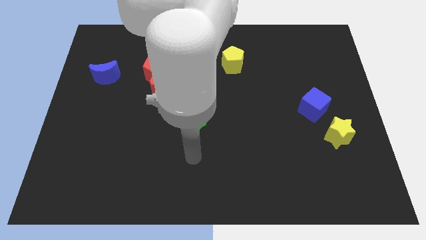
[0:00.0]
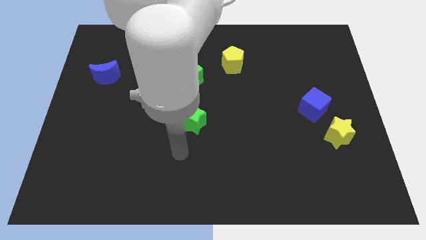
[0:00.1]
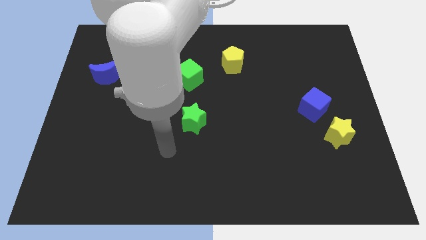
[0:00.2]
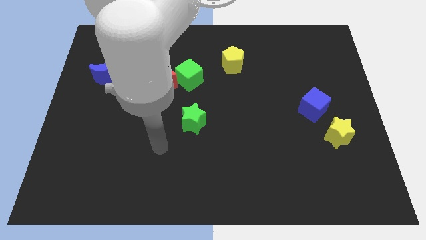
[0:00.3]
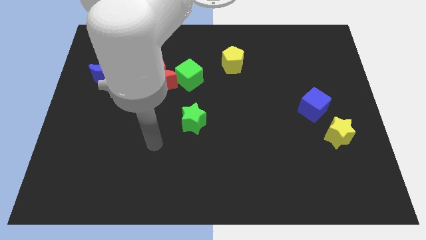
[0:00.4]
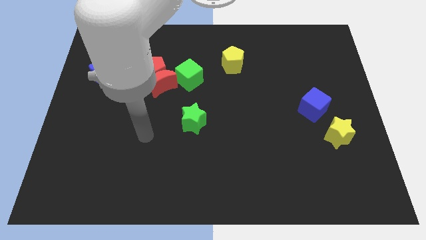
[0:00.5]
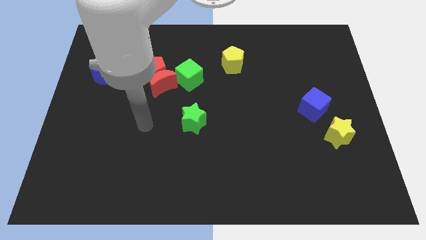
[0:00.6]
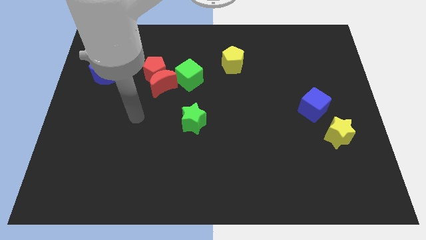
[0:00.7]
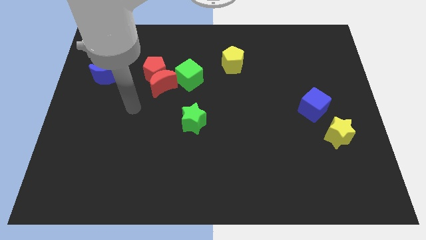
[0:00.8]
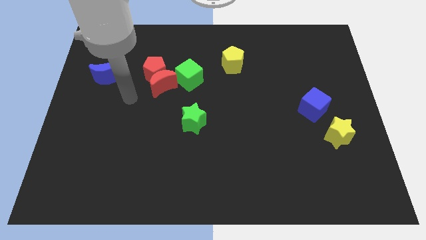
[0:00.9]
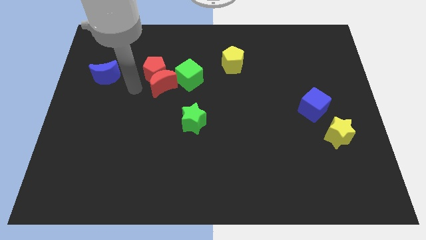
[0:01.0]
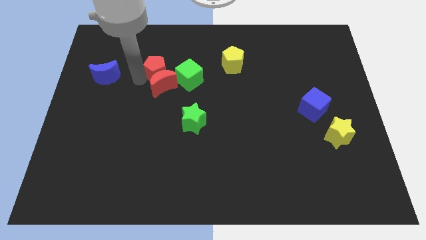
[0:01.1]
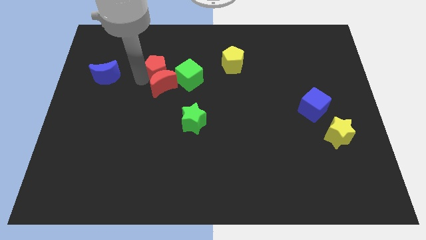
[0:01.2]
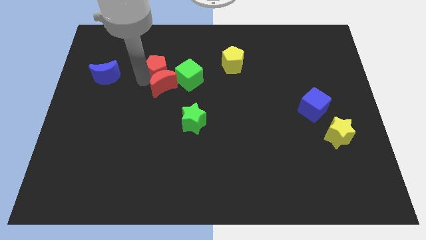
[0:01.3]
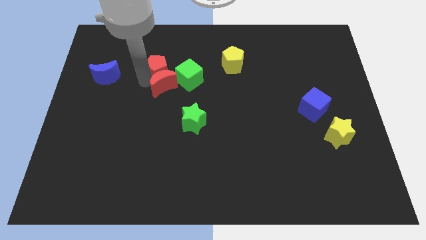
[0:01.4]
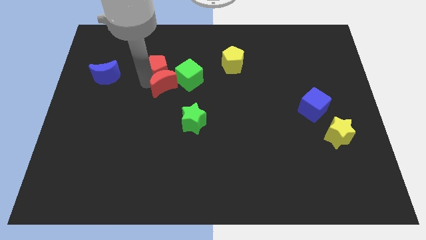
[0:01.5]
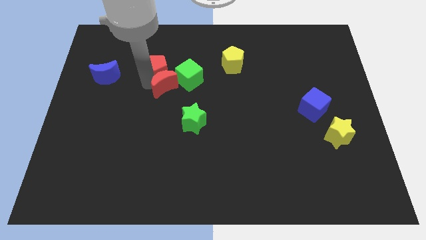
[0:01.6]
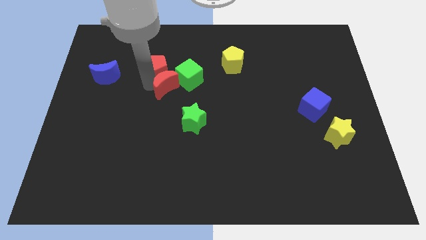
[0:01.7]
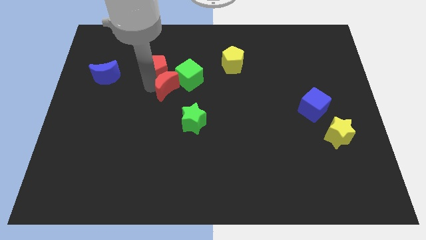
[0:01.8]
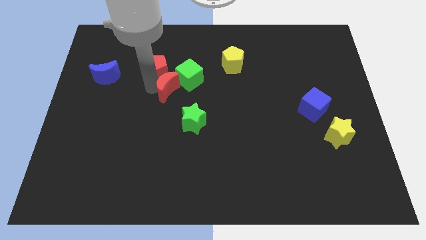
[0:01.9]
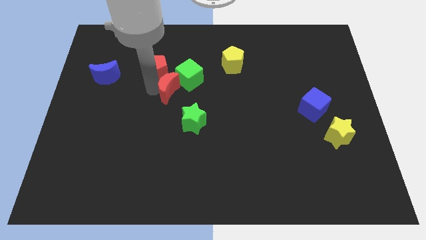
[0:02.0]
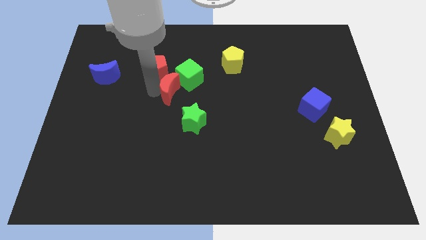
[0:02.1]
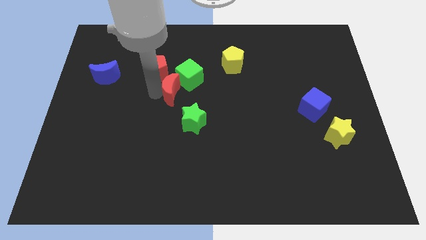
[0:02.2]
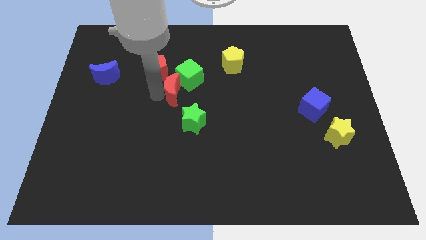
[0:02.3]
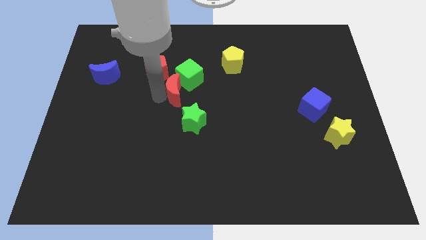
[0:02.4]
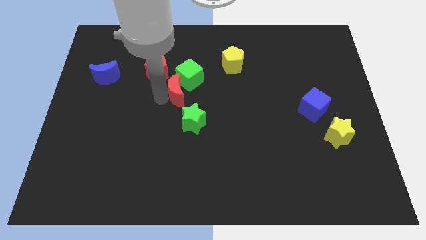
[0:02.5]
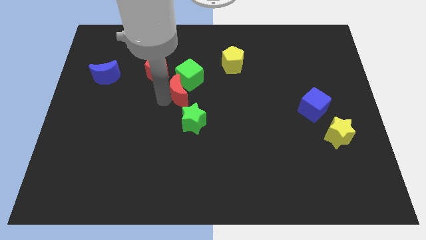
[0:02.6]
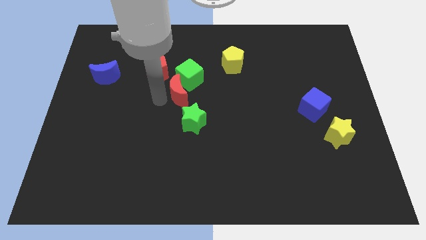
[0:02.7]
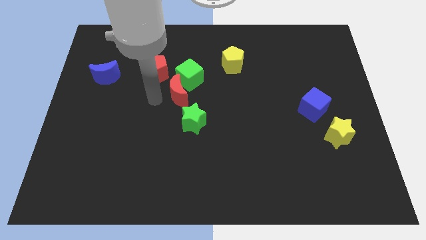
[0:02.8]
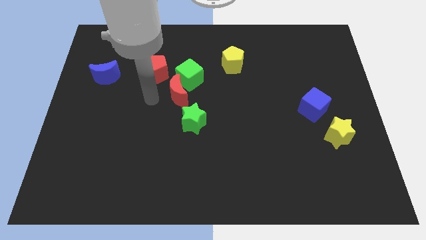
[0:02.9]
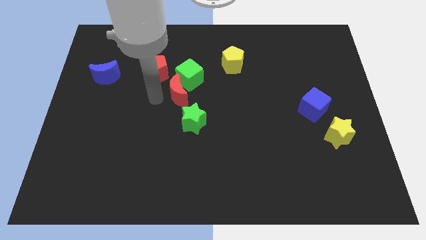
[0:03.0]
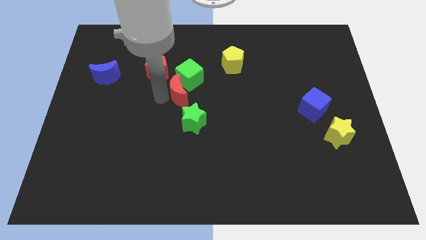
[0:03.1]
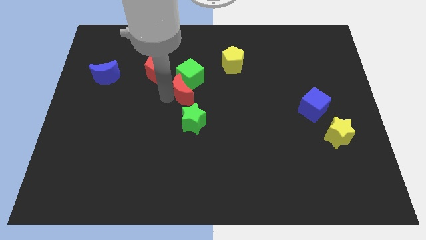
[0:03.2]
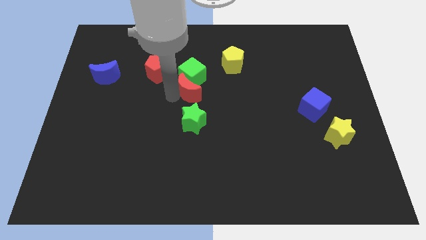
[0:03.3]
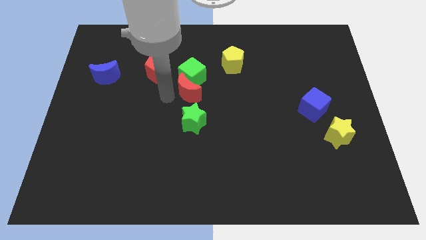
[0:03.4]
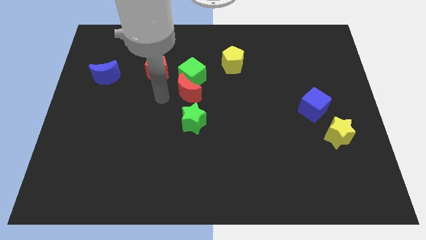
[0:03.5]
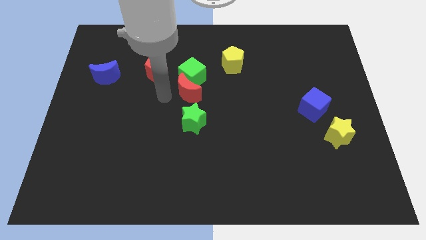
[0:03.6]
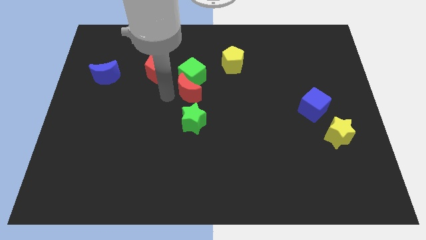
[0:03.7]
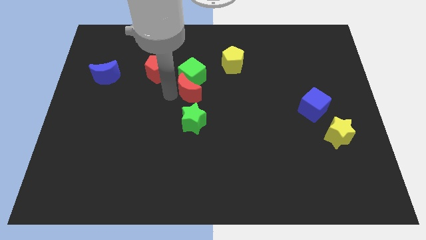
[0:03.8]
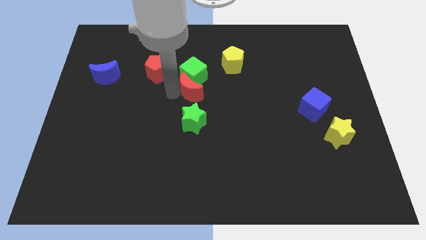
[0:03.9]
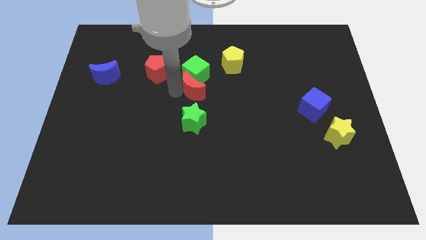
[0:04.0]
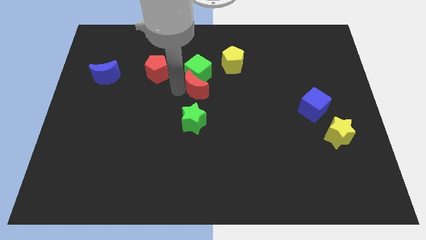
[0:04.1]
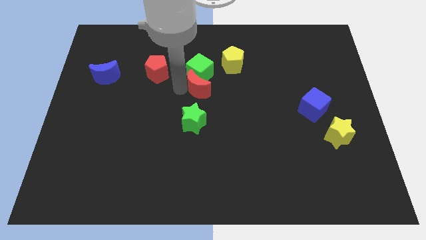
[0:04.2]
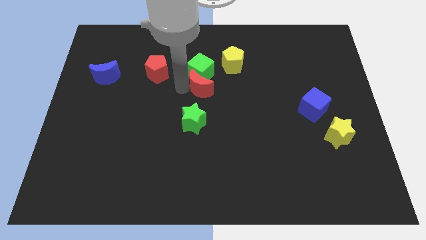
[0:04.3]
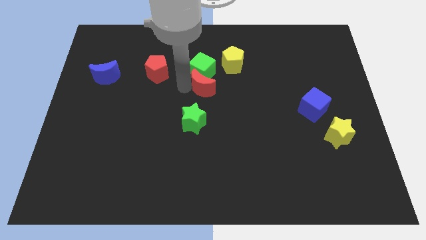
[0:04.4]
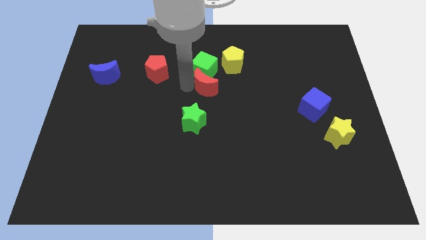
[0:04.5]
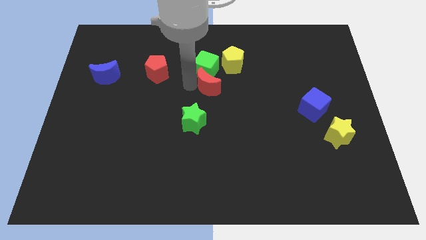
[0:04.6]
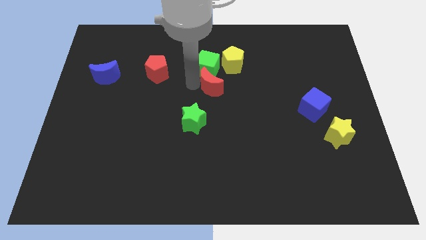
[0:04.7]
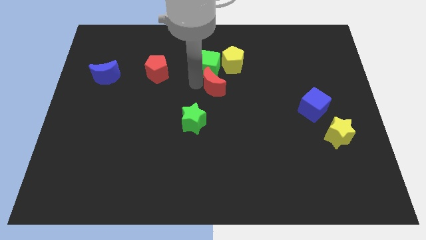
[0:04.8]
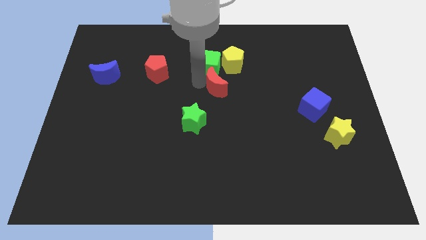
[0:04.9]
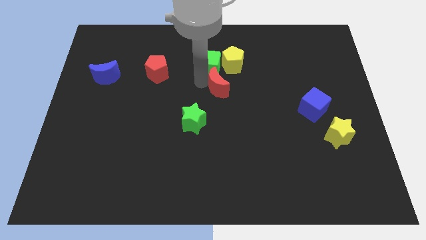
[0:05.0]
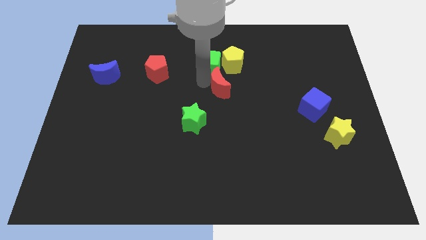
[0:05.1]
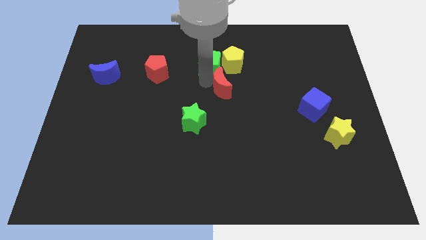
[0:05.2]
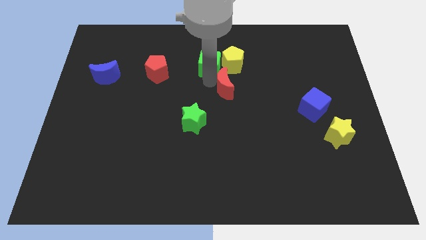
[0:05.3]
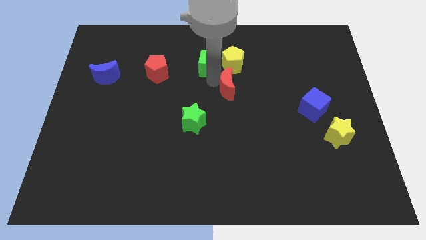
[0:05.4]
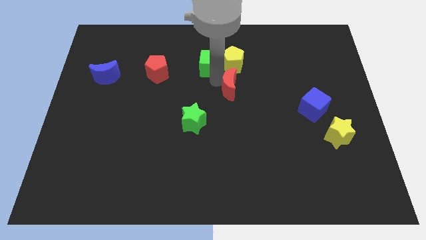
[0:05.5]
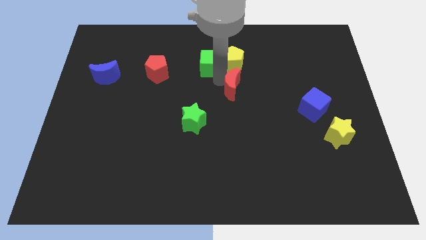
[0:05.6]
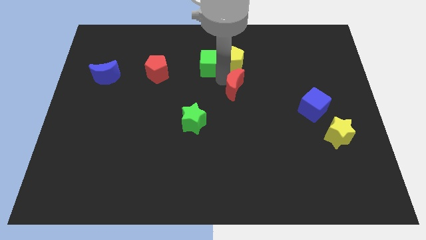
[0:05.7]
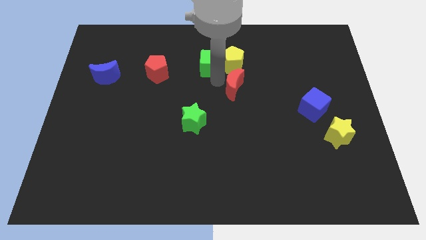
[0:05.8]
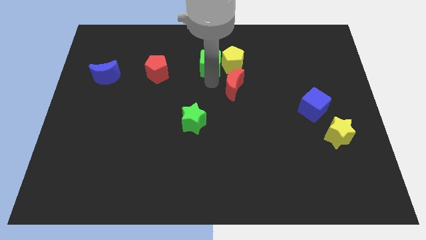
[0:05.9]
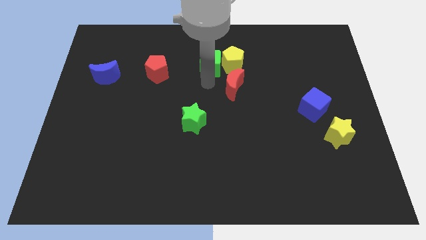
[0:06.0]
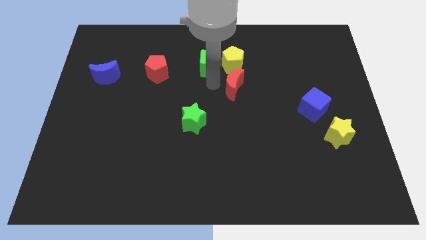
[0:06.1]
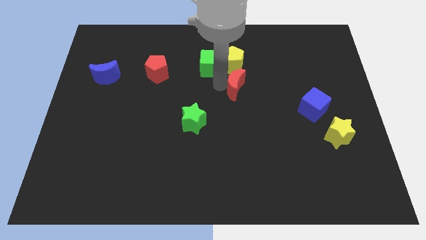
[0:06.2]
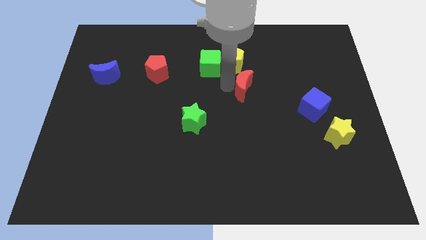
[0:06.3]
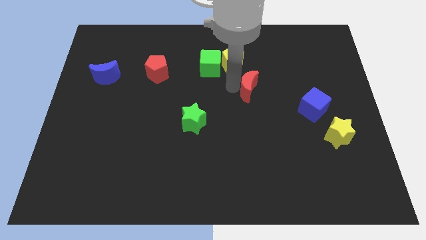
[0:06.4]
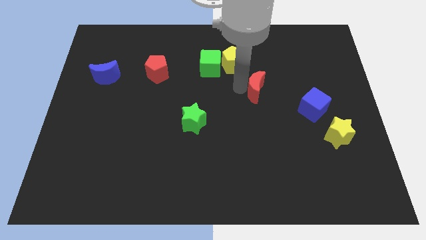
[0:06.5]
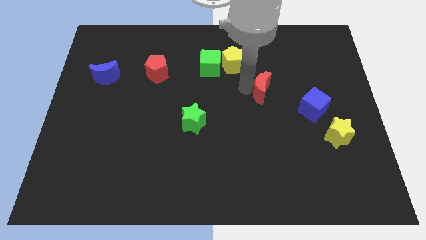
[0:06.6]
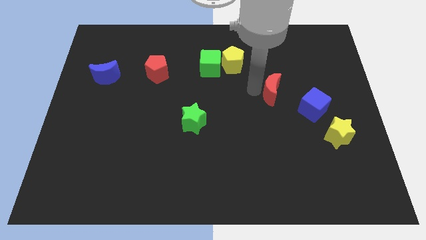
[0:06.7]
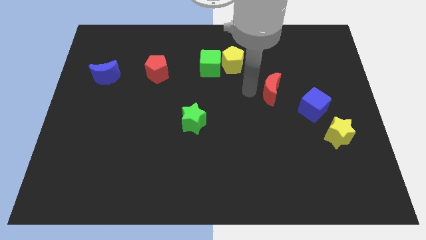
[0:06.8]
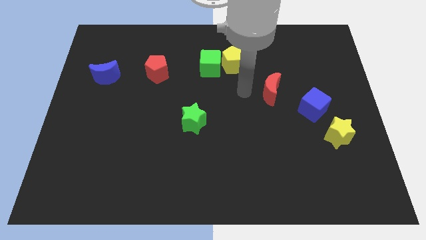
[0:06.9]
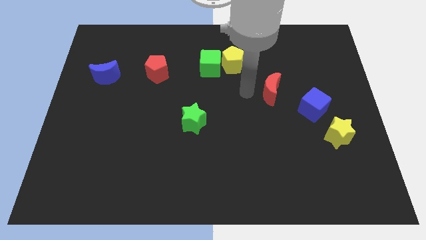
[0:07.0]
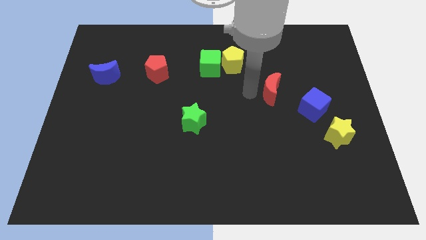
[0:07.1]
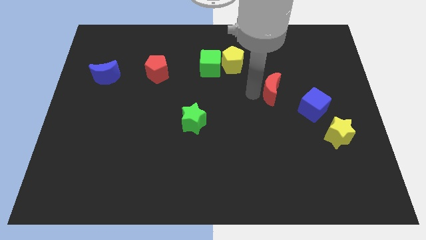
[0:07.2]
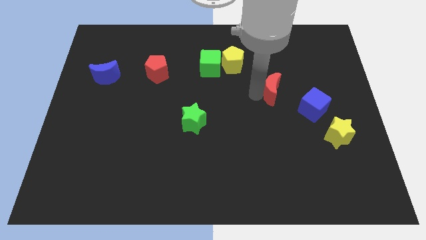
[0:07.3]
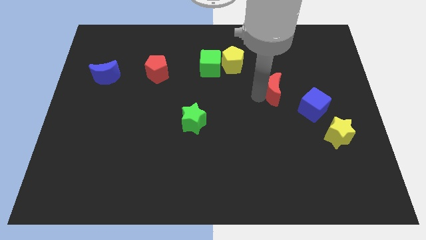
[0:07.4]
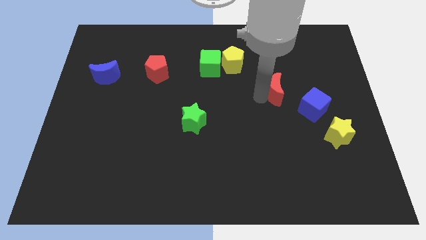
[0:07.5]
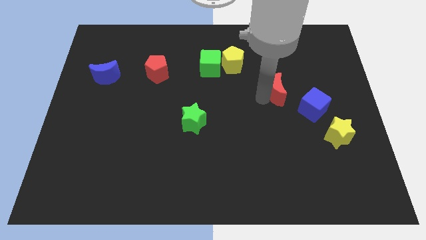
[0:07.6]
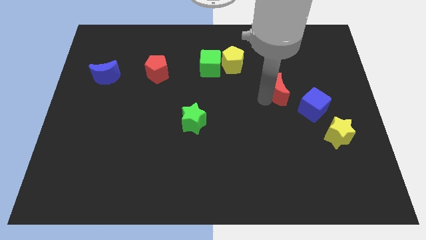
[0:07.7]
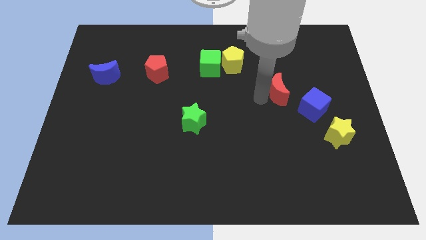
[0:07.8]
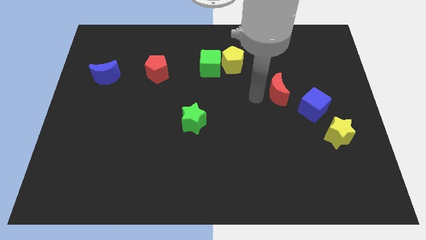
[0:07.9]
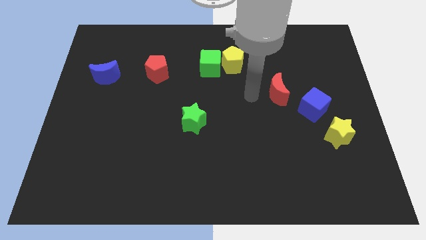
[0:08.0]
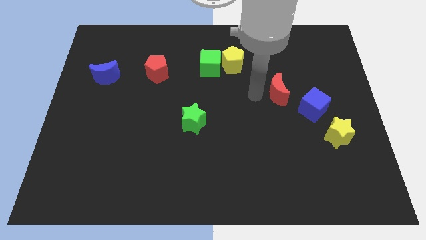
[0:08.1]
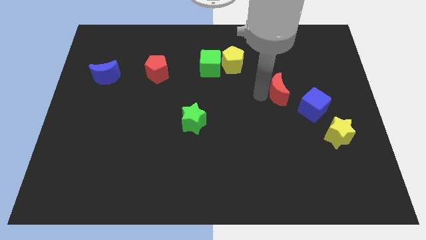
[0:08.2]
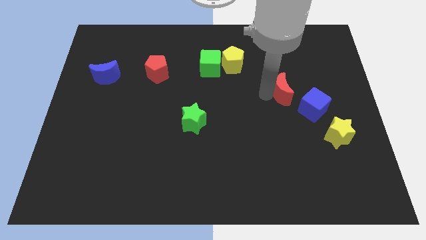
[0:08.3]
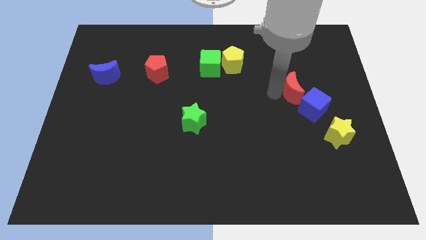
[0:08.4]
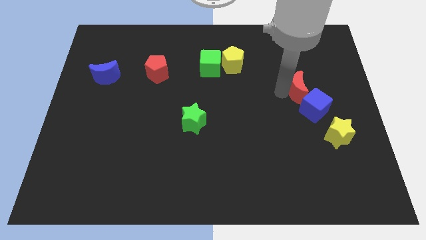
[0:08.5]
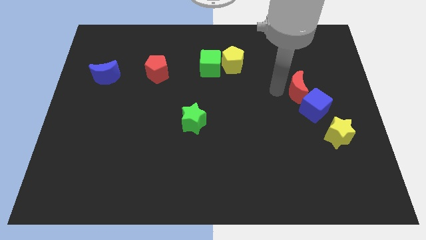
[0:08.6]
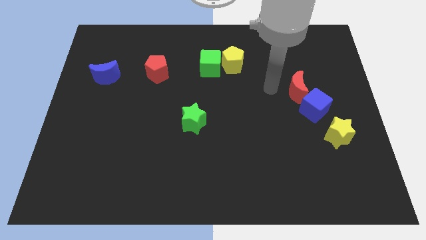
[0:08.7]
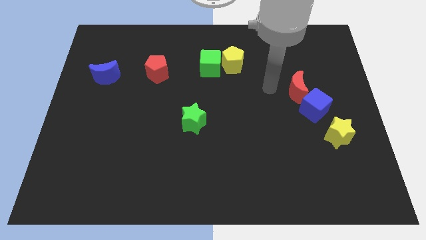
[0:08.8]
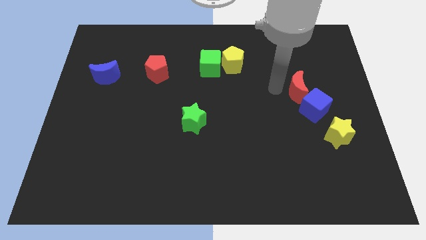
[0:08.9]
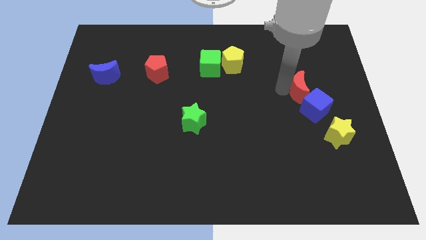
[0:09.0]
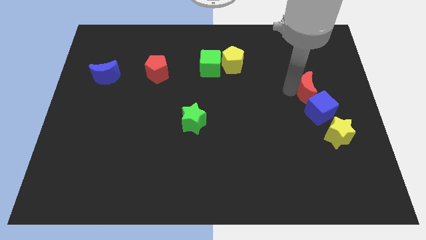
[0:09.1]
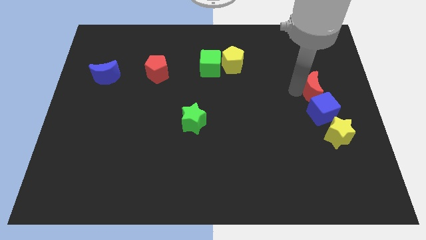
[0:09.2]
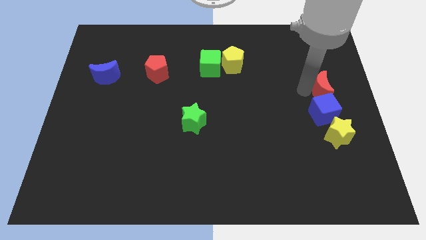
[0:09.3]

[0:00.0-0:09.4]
slide the red moon to the right side
